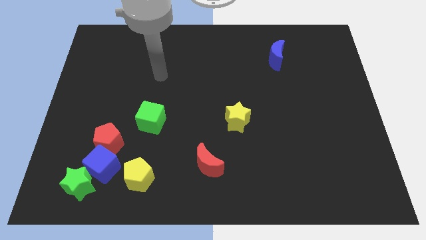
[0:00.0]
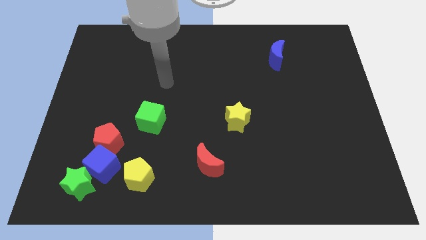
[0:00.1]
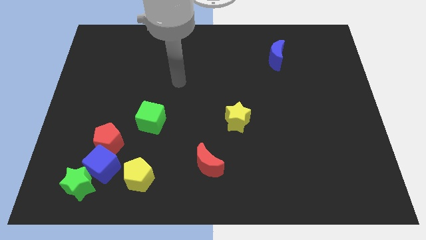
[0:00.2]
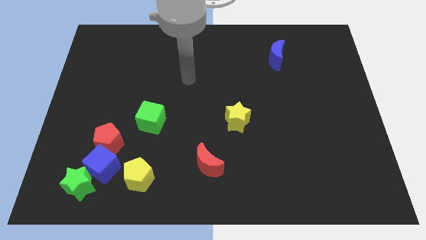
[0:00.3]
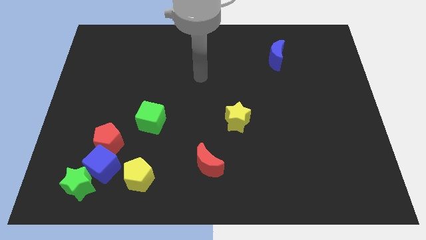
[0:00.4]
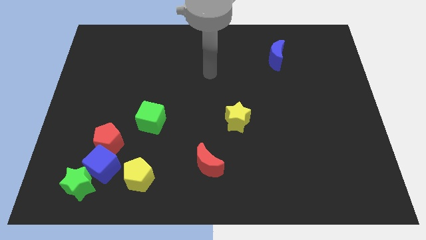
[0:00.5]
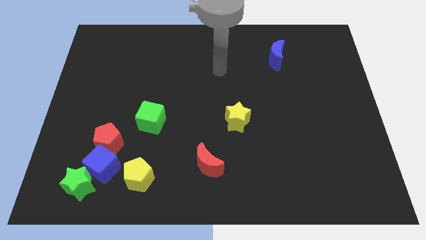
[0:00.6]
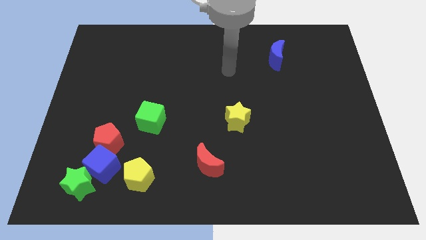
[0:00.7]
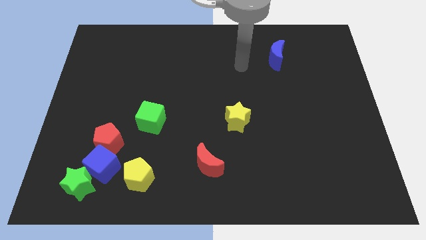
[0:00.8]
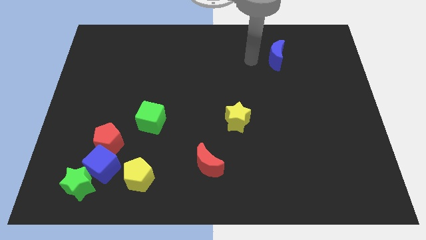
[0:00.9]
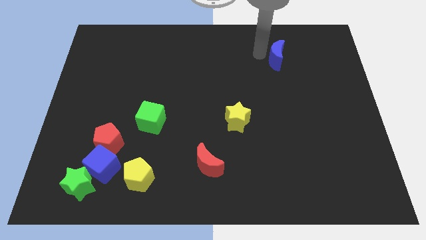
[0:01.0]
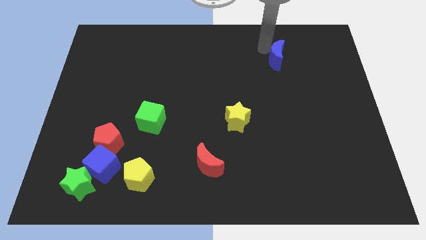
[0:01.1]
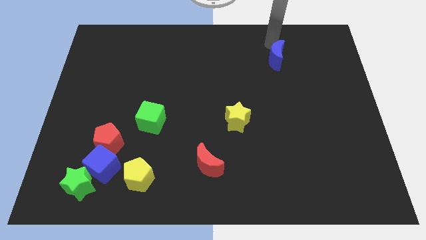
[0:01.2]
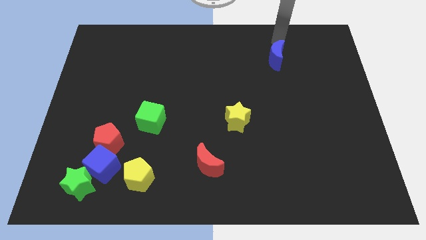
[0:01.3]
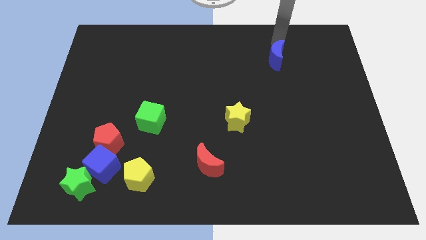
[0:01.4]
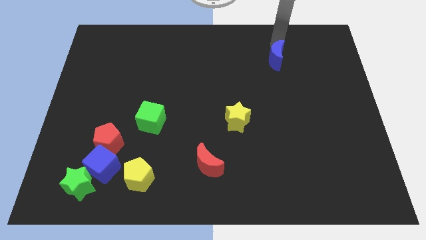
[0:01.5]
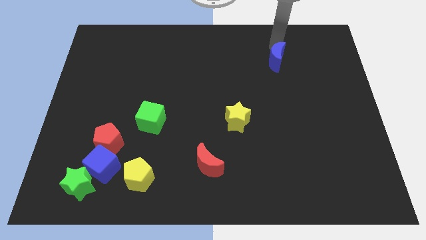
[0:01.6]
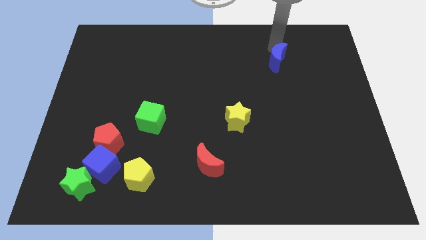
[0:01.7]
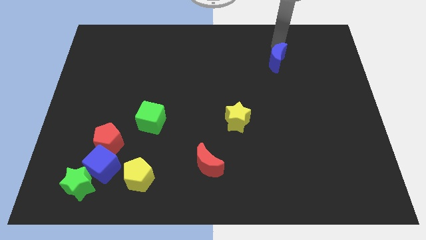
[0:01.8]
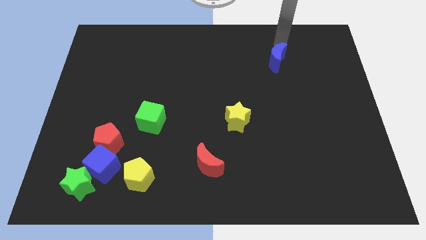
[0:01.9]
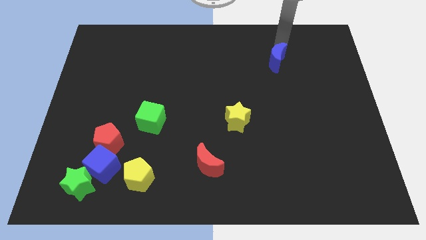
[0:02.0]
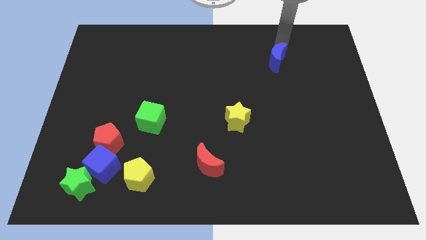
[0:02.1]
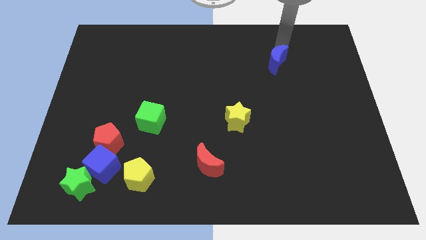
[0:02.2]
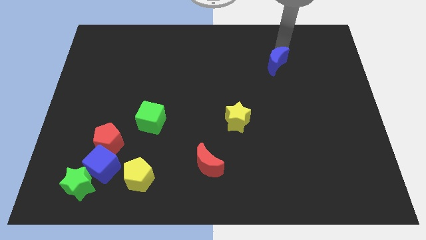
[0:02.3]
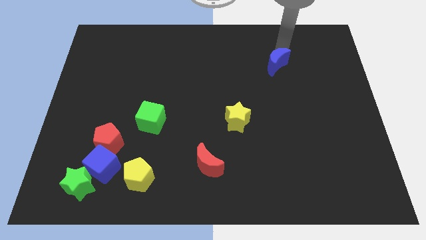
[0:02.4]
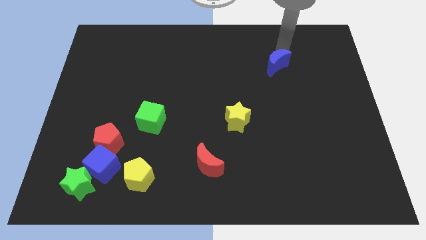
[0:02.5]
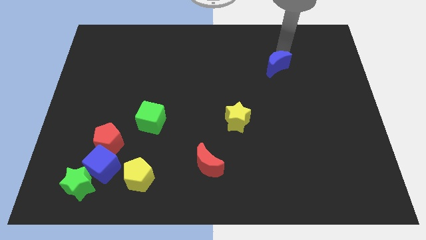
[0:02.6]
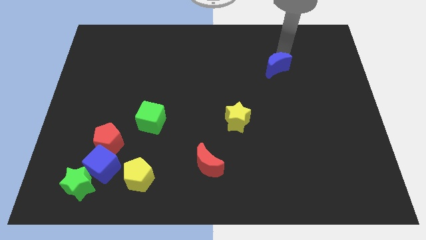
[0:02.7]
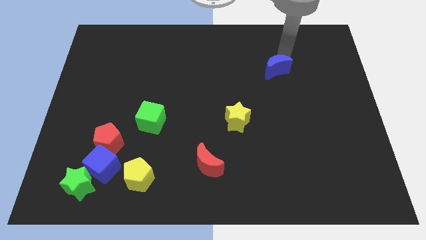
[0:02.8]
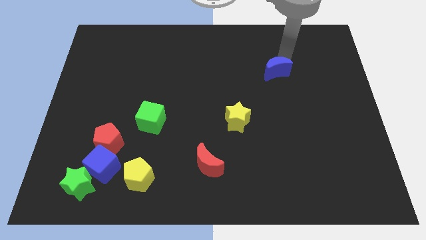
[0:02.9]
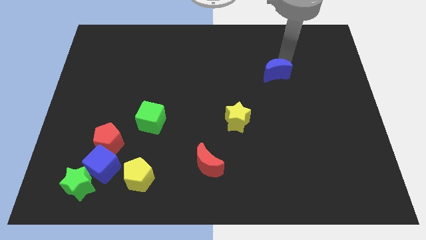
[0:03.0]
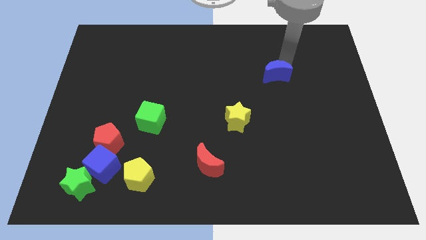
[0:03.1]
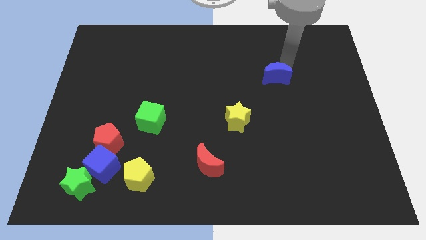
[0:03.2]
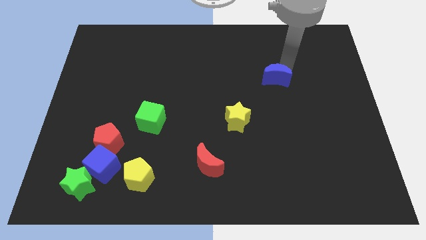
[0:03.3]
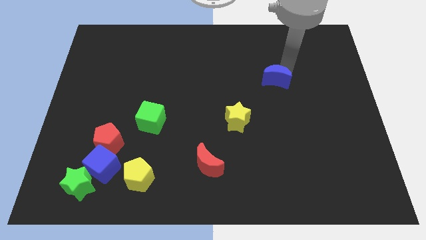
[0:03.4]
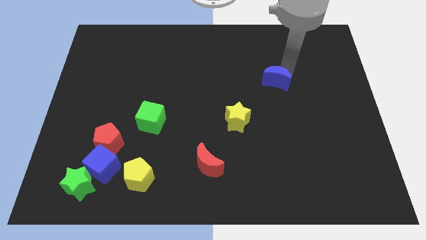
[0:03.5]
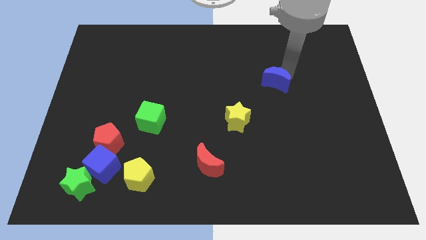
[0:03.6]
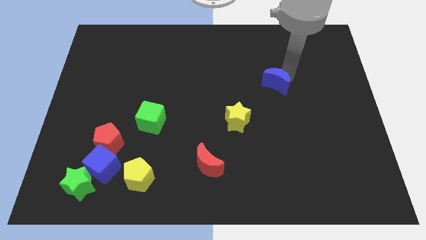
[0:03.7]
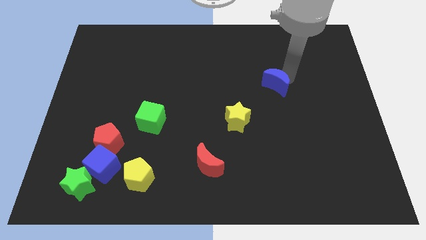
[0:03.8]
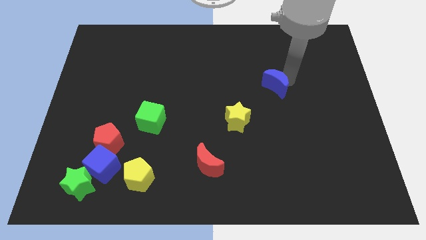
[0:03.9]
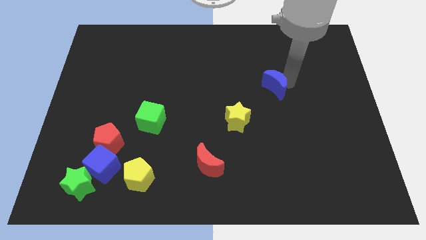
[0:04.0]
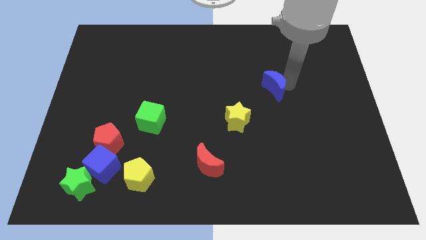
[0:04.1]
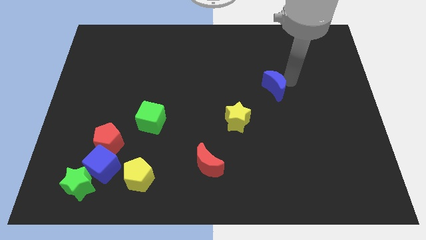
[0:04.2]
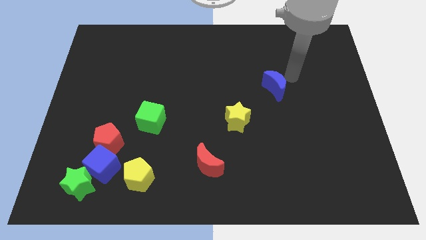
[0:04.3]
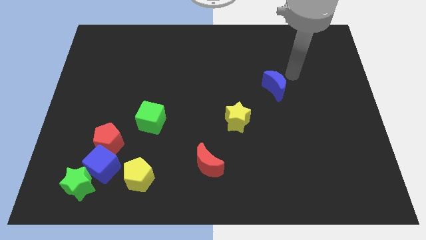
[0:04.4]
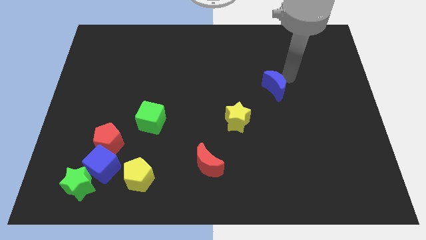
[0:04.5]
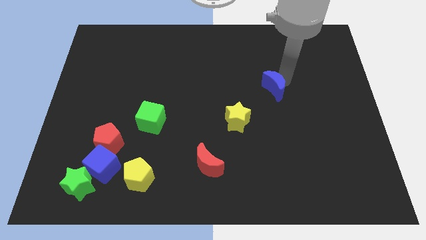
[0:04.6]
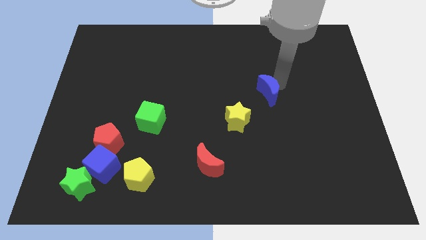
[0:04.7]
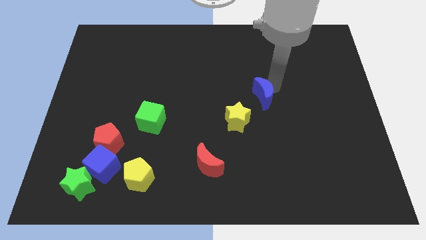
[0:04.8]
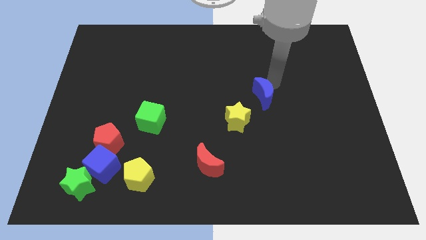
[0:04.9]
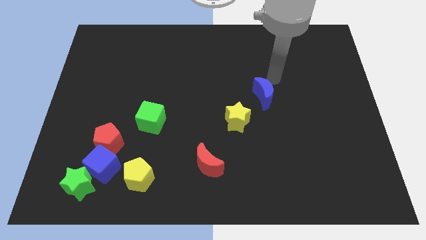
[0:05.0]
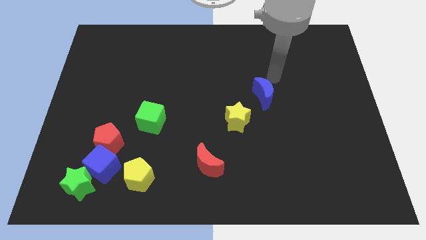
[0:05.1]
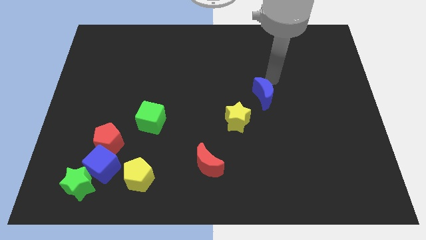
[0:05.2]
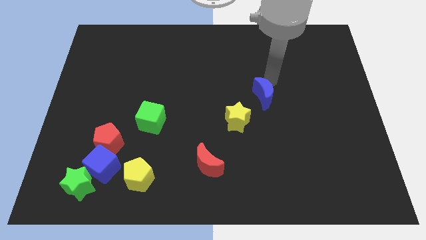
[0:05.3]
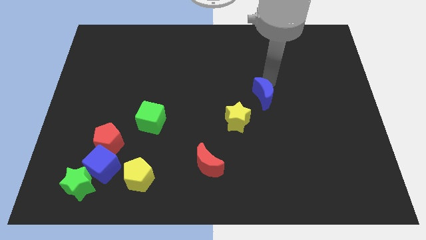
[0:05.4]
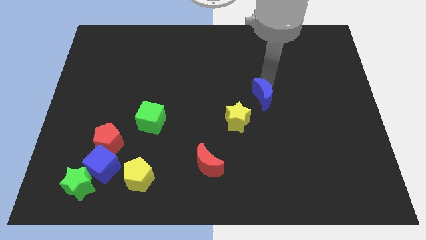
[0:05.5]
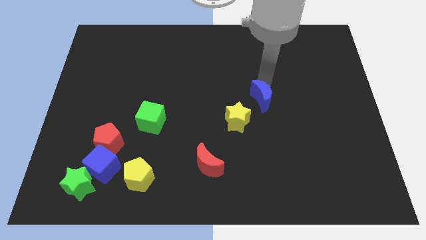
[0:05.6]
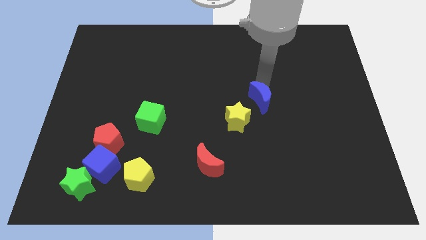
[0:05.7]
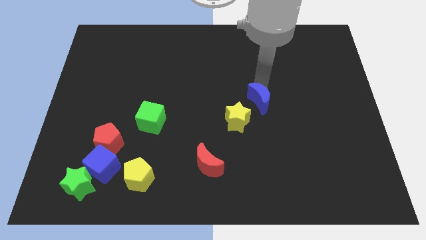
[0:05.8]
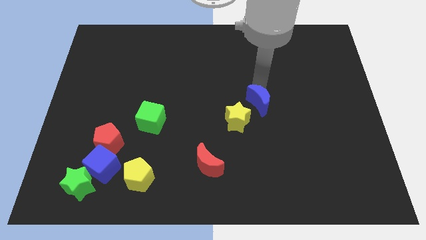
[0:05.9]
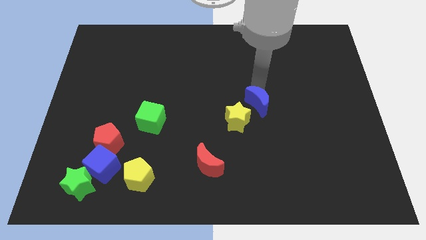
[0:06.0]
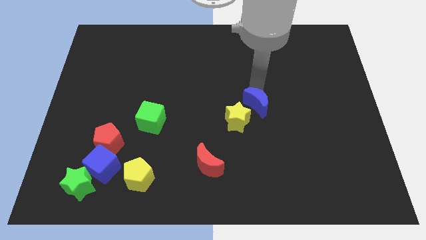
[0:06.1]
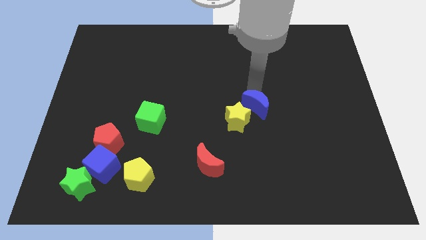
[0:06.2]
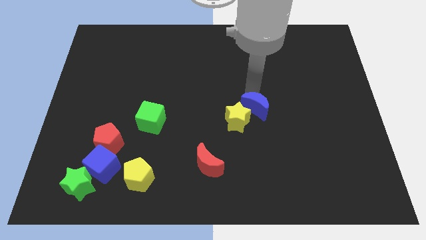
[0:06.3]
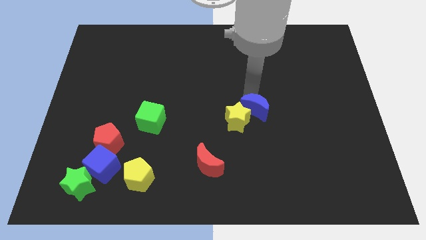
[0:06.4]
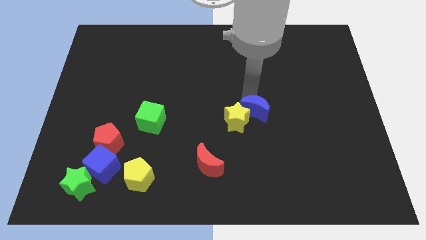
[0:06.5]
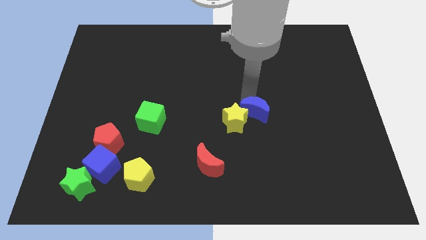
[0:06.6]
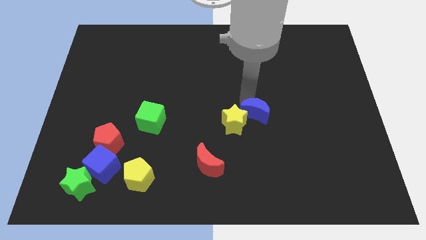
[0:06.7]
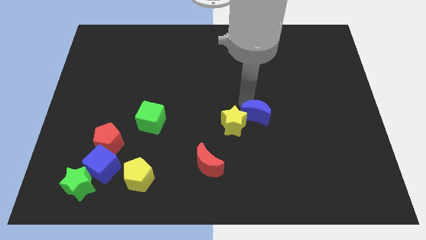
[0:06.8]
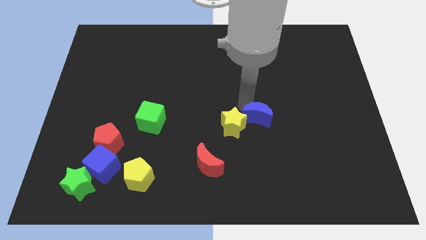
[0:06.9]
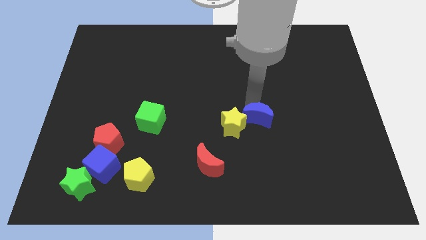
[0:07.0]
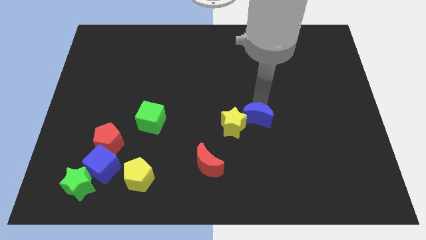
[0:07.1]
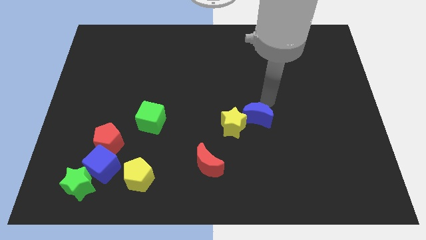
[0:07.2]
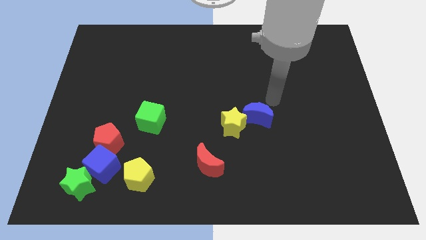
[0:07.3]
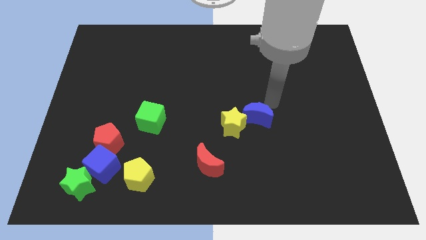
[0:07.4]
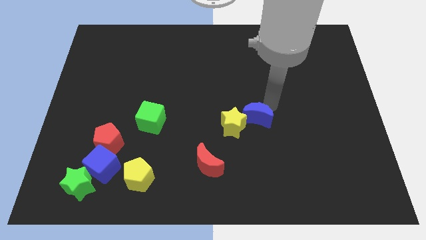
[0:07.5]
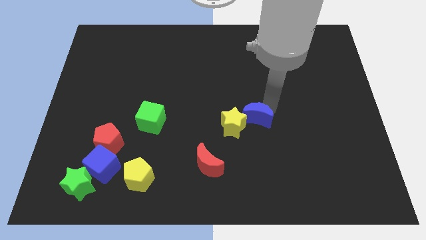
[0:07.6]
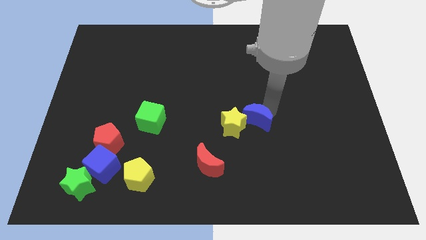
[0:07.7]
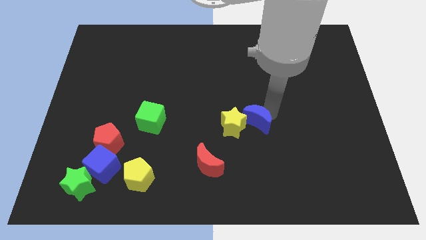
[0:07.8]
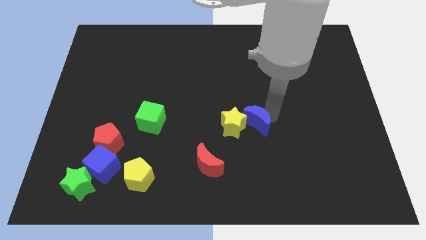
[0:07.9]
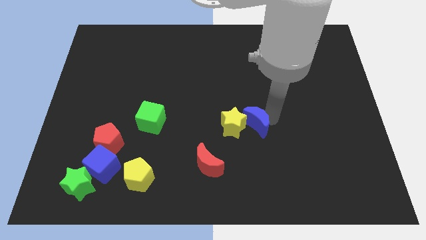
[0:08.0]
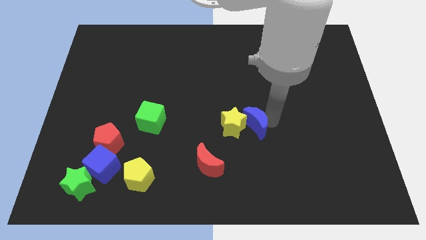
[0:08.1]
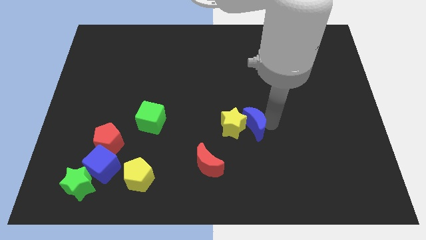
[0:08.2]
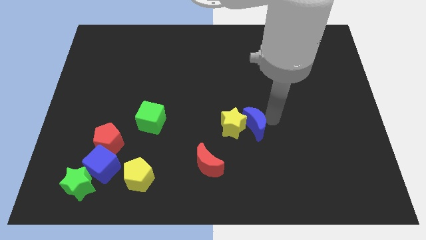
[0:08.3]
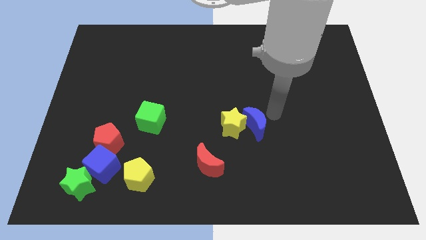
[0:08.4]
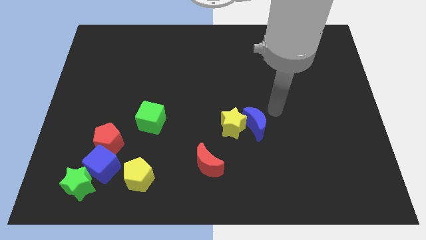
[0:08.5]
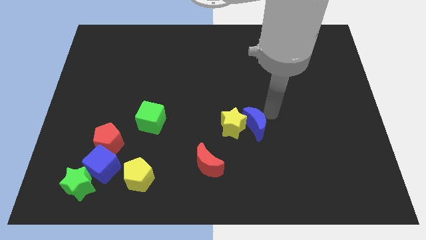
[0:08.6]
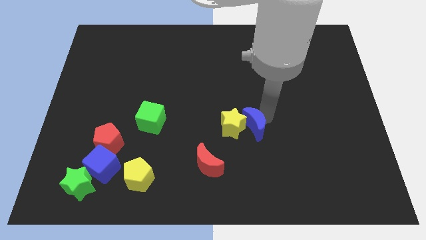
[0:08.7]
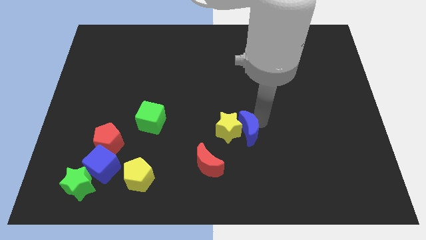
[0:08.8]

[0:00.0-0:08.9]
slide the blue moon to the top right of the red moon
